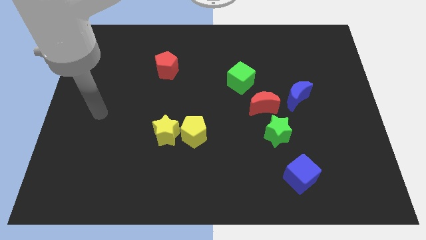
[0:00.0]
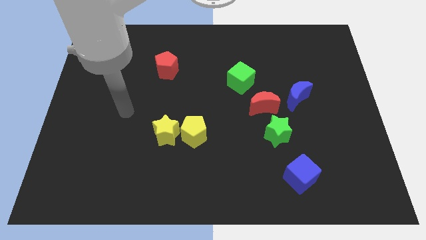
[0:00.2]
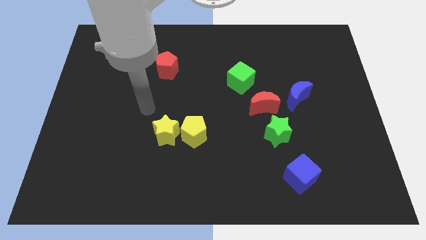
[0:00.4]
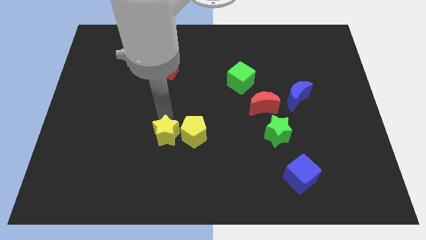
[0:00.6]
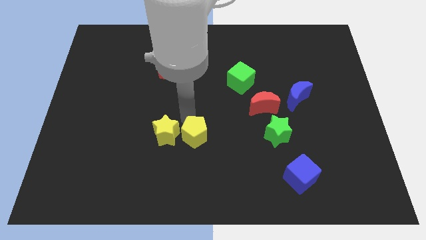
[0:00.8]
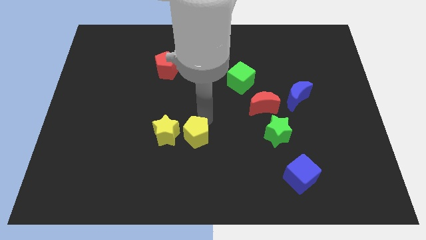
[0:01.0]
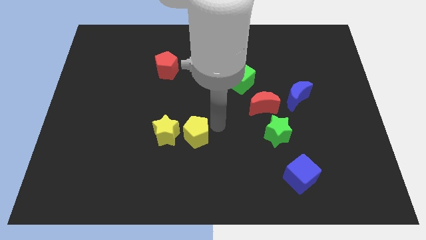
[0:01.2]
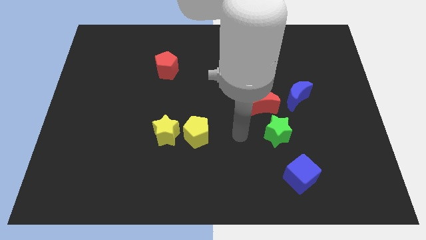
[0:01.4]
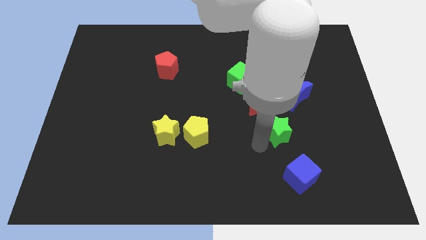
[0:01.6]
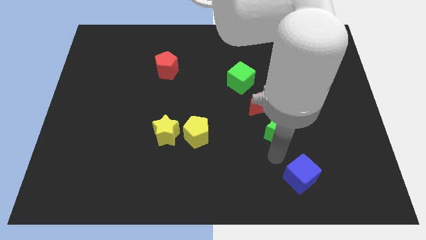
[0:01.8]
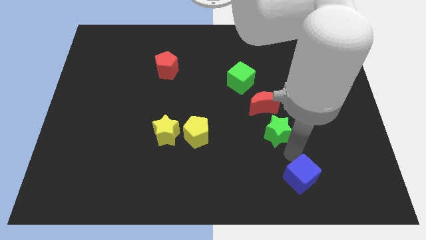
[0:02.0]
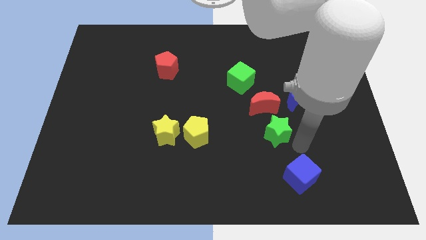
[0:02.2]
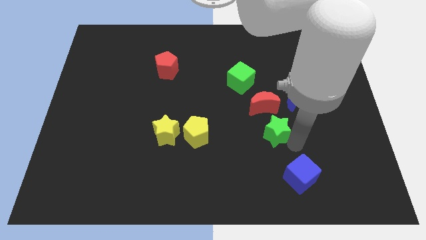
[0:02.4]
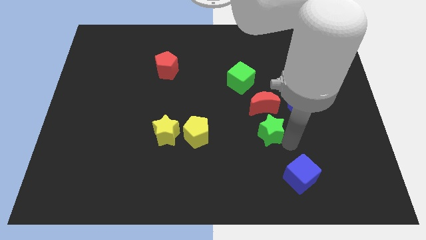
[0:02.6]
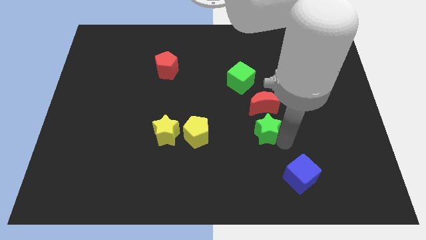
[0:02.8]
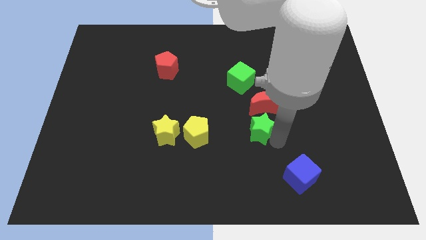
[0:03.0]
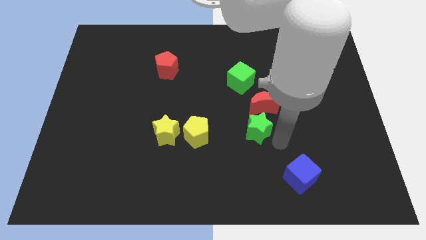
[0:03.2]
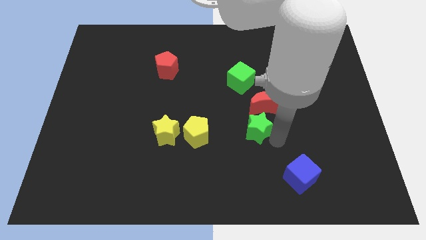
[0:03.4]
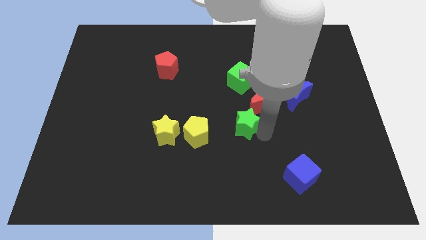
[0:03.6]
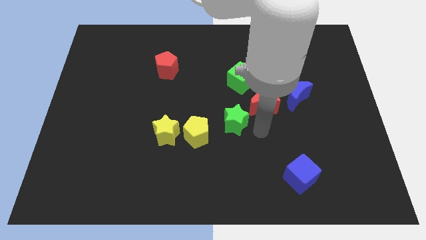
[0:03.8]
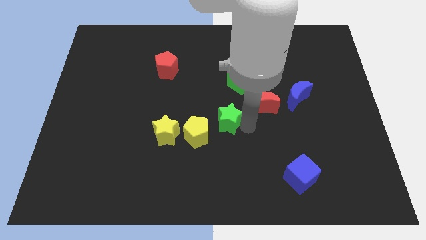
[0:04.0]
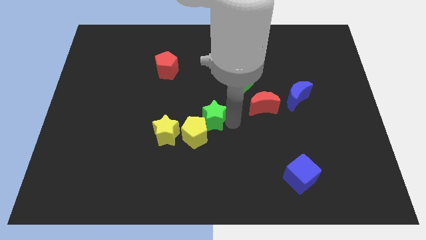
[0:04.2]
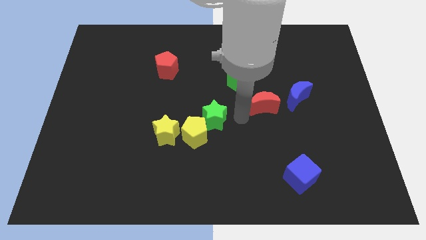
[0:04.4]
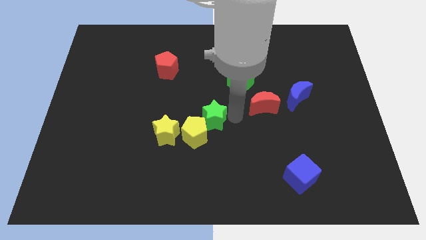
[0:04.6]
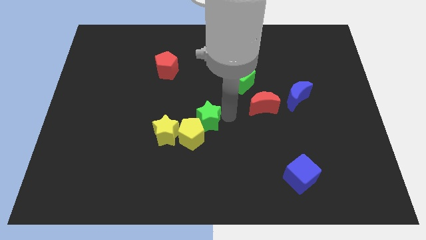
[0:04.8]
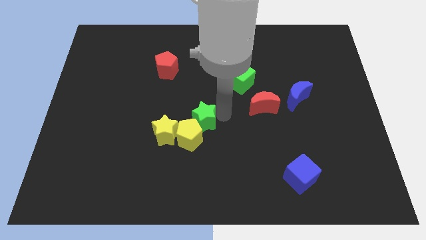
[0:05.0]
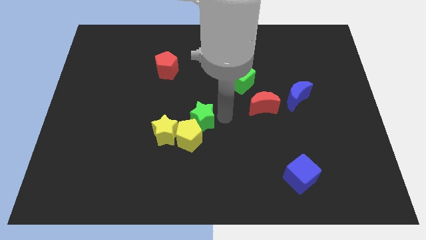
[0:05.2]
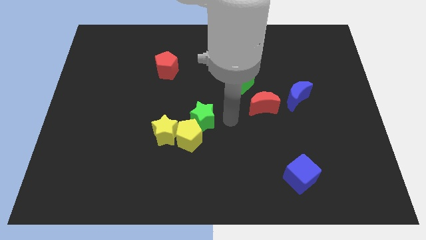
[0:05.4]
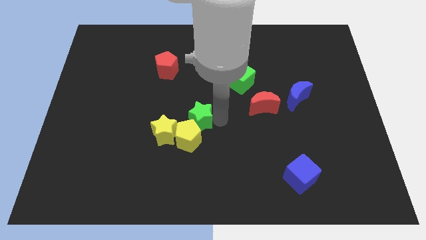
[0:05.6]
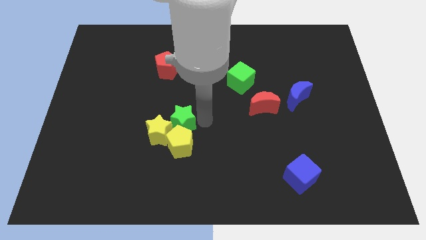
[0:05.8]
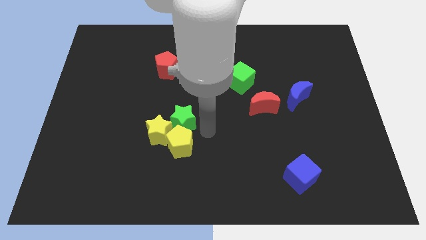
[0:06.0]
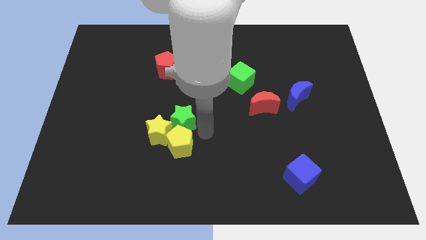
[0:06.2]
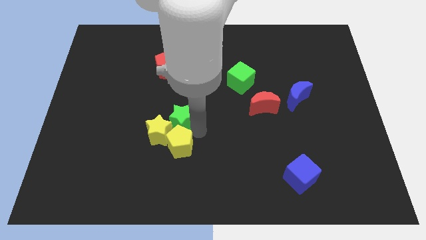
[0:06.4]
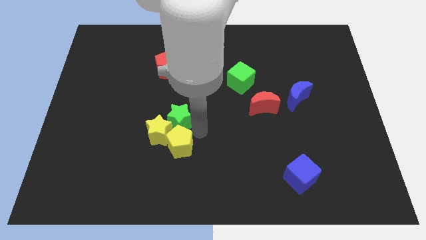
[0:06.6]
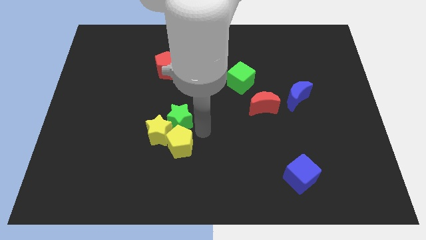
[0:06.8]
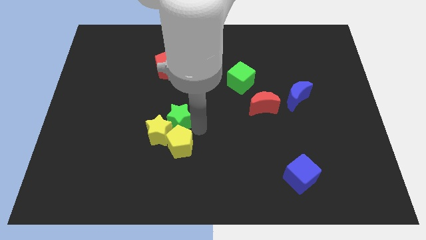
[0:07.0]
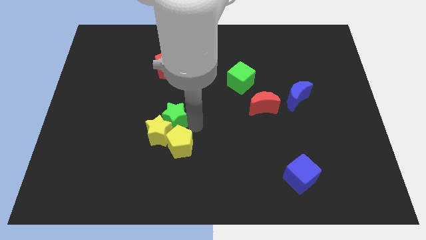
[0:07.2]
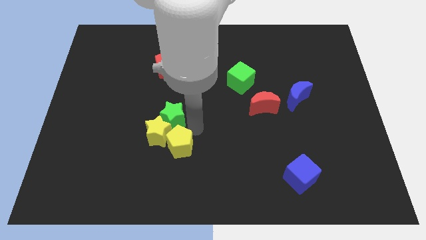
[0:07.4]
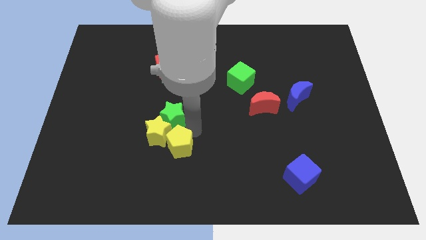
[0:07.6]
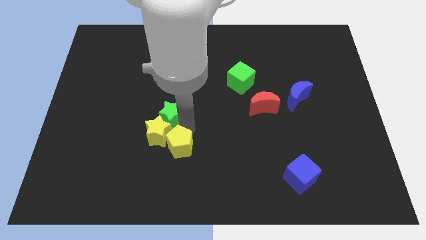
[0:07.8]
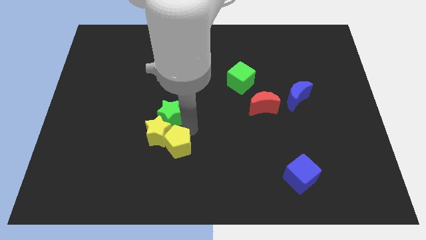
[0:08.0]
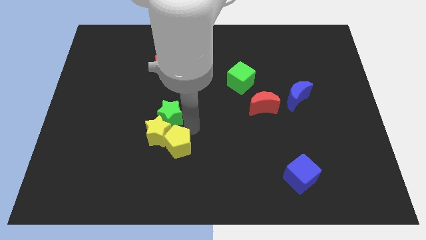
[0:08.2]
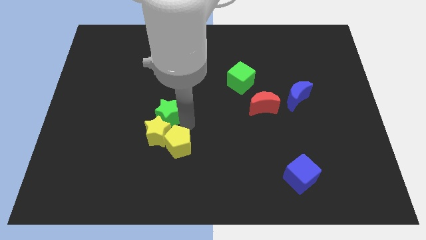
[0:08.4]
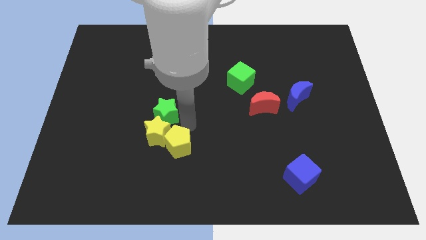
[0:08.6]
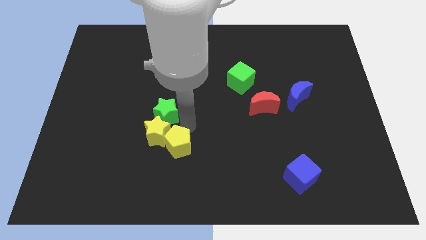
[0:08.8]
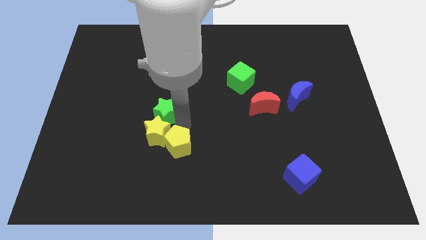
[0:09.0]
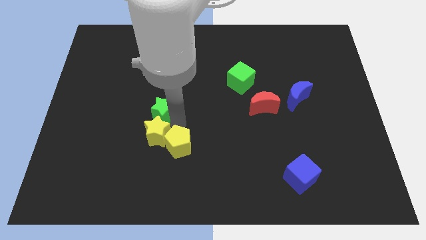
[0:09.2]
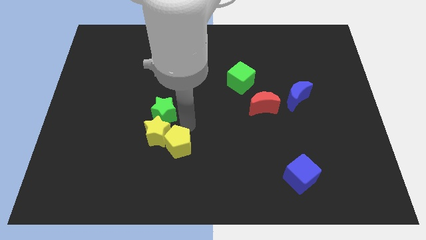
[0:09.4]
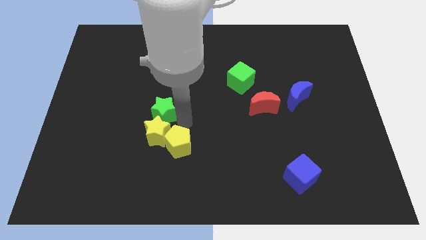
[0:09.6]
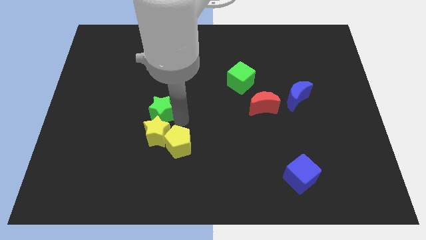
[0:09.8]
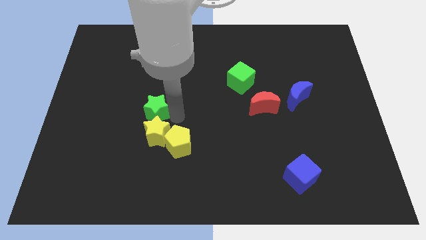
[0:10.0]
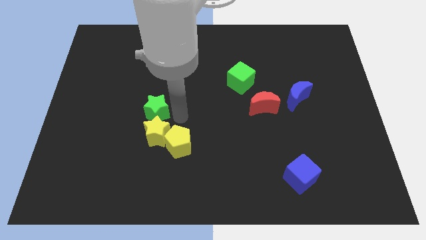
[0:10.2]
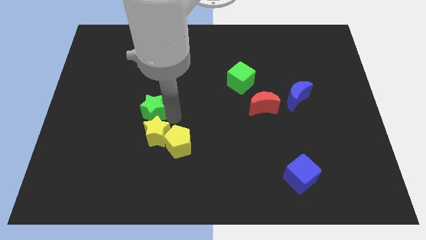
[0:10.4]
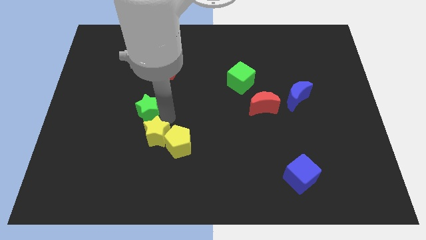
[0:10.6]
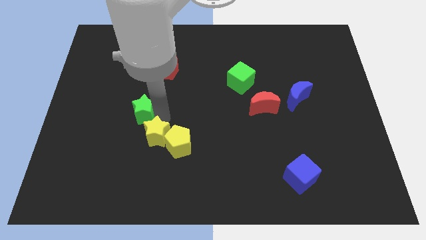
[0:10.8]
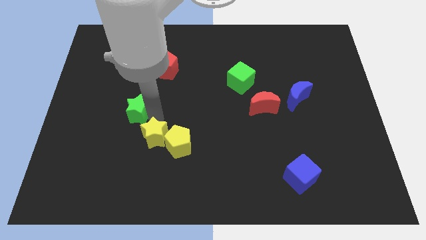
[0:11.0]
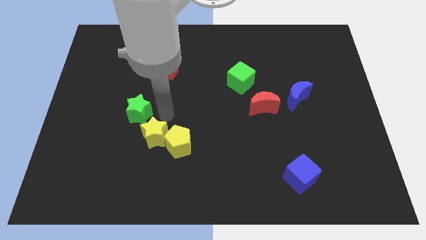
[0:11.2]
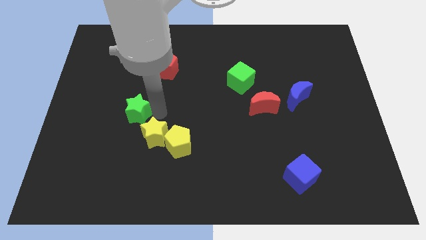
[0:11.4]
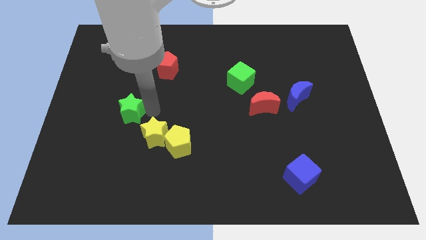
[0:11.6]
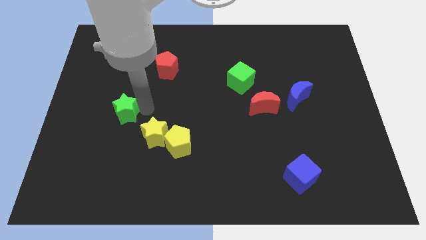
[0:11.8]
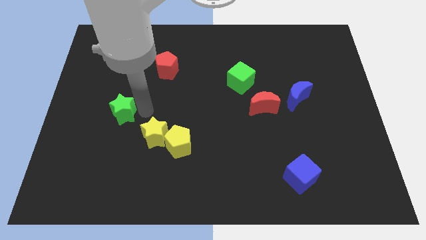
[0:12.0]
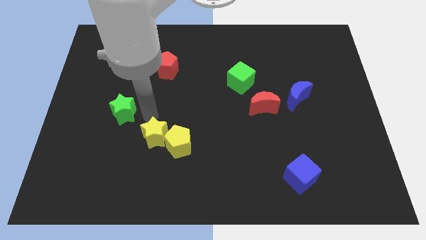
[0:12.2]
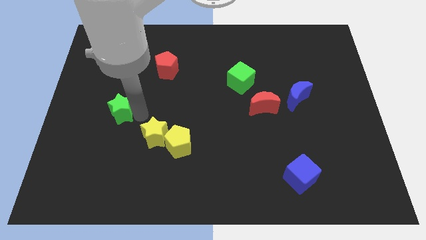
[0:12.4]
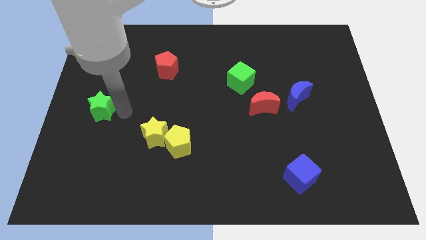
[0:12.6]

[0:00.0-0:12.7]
slide the green star to the left side
